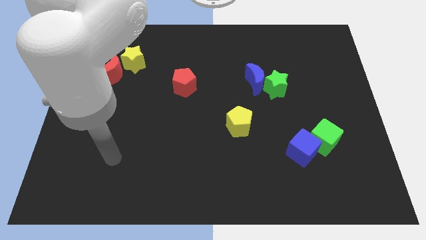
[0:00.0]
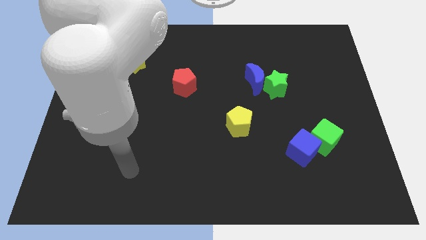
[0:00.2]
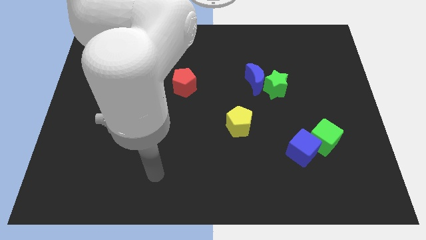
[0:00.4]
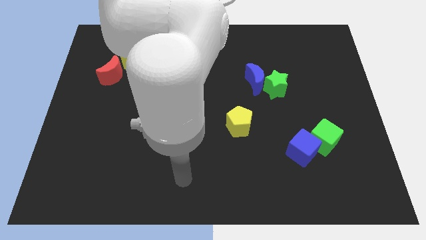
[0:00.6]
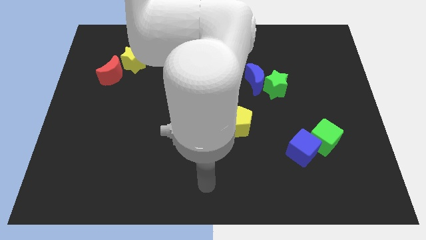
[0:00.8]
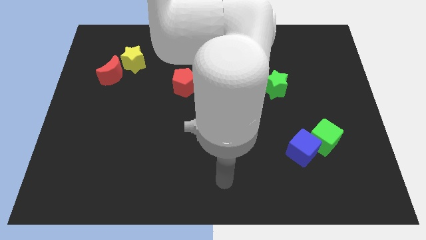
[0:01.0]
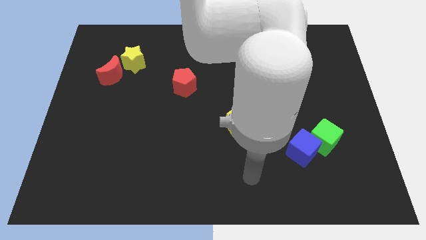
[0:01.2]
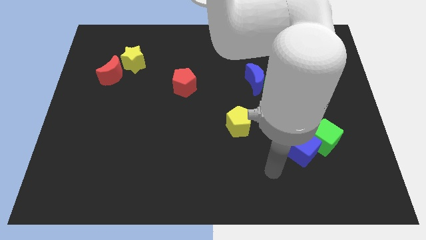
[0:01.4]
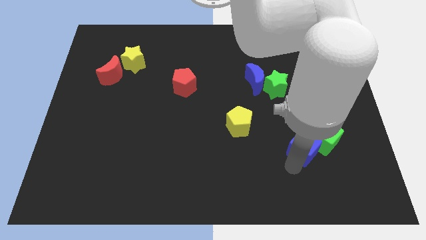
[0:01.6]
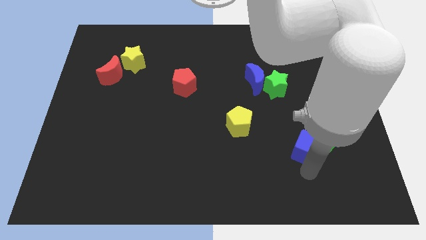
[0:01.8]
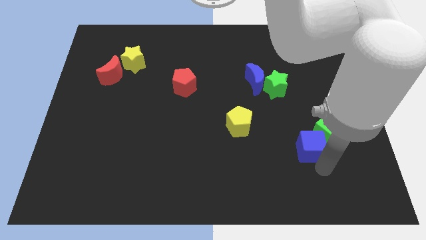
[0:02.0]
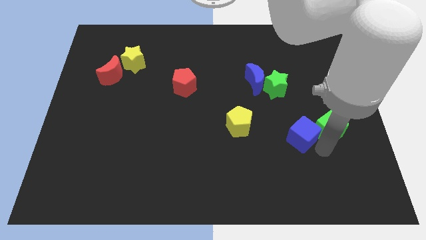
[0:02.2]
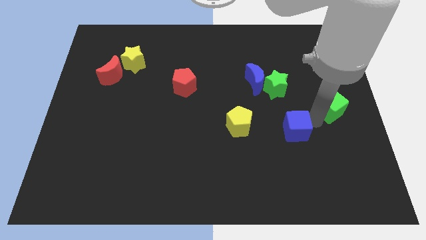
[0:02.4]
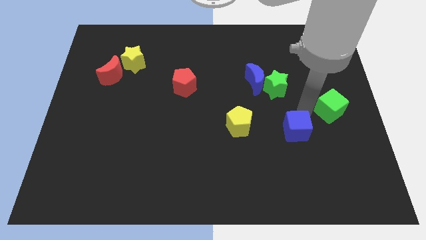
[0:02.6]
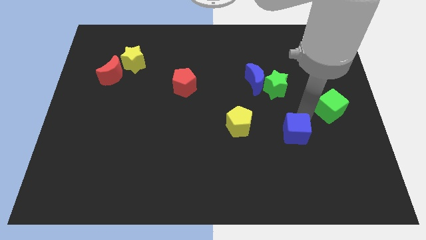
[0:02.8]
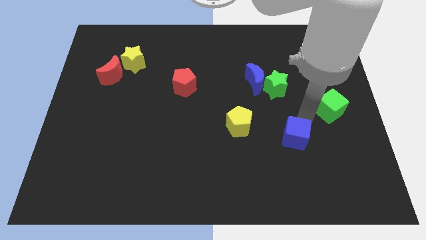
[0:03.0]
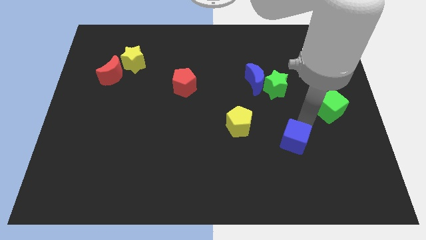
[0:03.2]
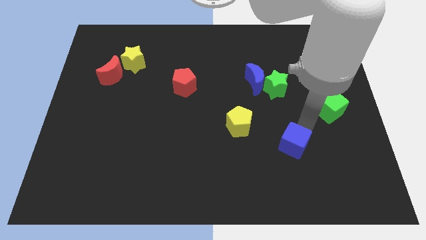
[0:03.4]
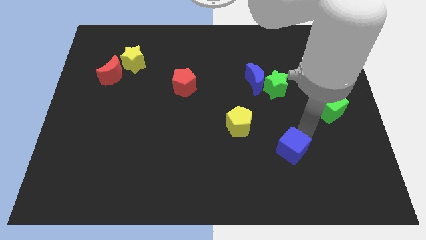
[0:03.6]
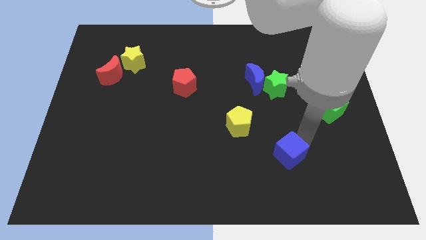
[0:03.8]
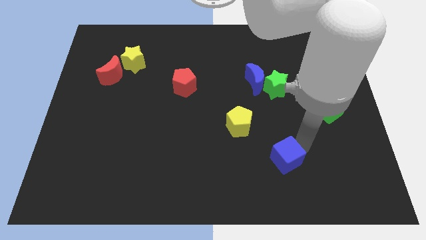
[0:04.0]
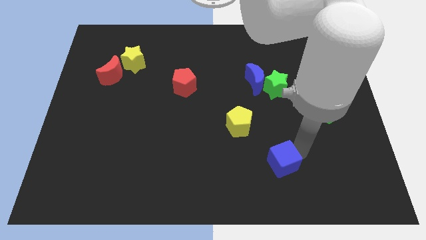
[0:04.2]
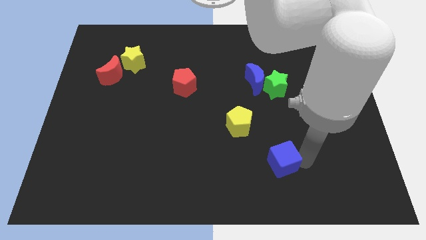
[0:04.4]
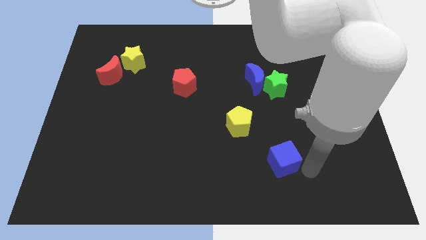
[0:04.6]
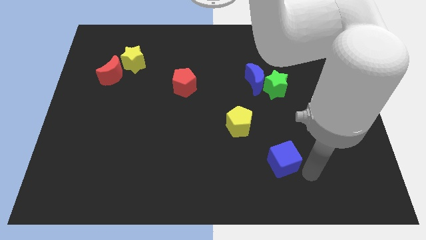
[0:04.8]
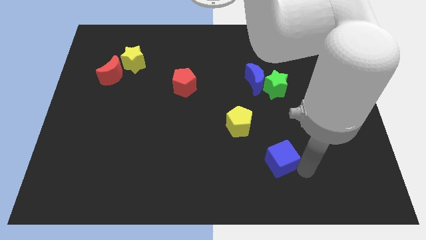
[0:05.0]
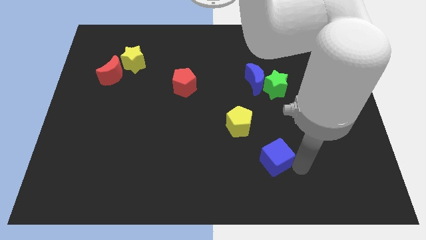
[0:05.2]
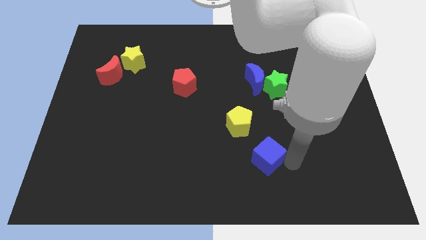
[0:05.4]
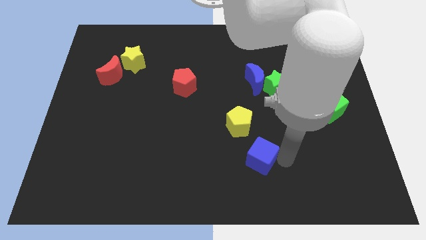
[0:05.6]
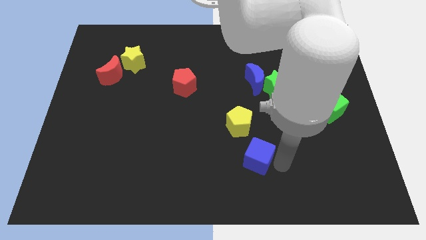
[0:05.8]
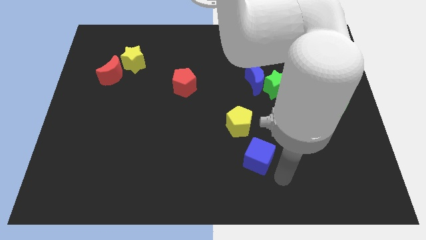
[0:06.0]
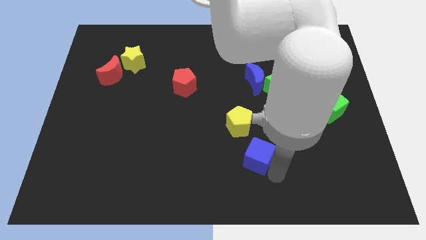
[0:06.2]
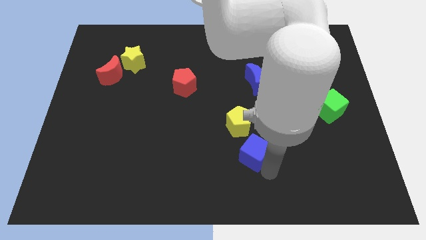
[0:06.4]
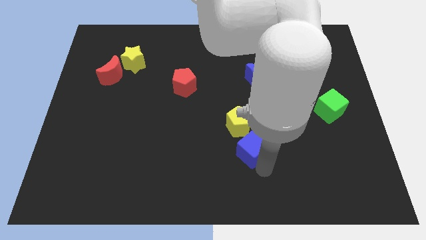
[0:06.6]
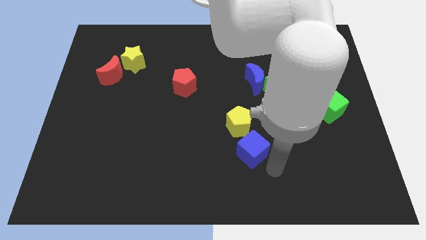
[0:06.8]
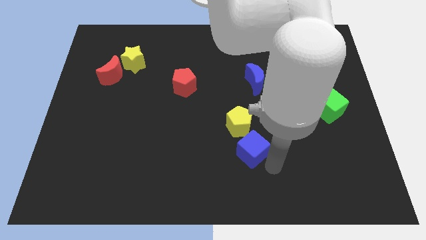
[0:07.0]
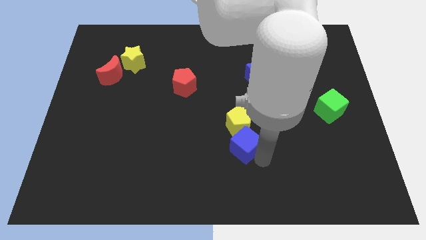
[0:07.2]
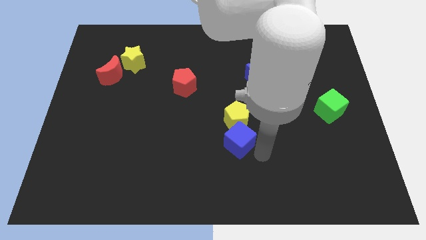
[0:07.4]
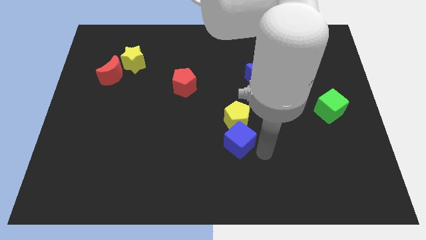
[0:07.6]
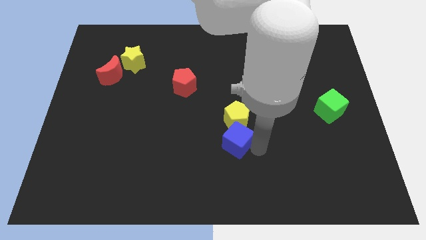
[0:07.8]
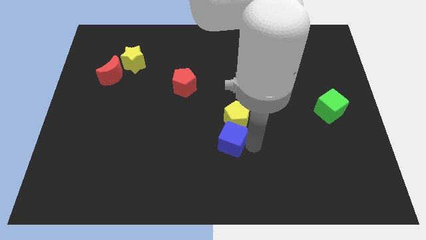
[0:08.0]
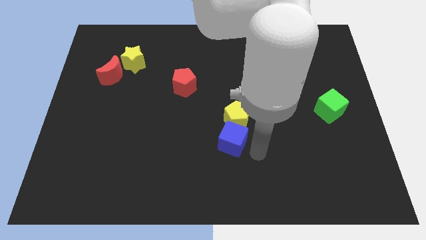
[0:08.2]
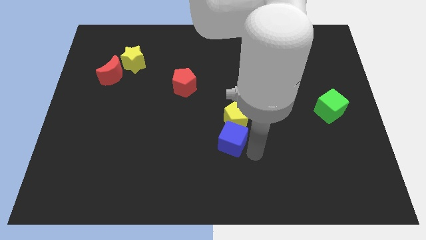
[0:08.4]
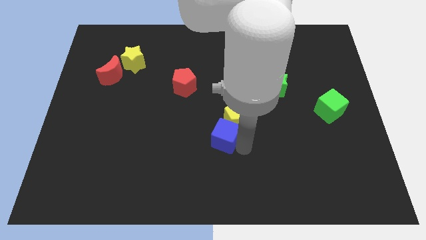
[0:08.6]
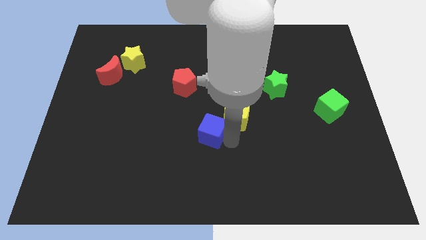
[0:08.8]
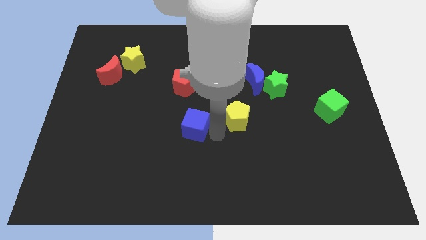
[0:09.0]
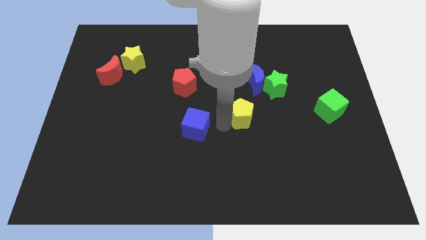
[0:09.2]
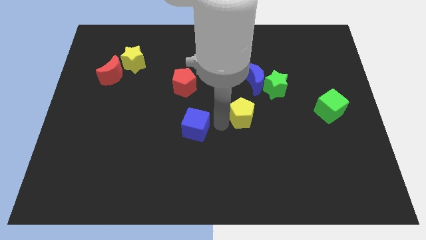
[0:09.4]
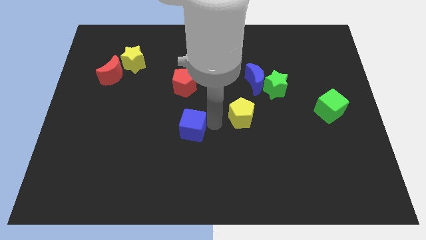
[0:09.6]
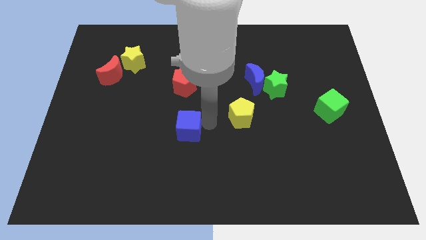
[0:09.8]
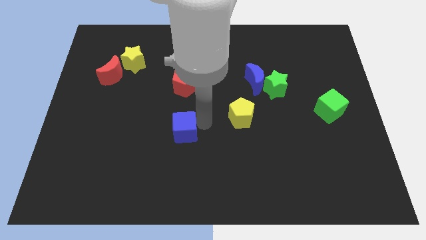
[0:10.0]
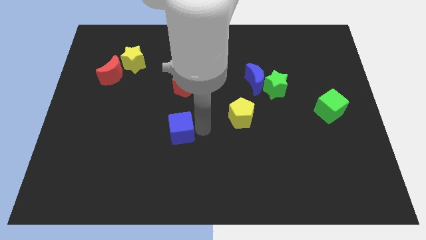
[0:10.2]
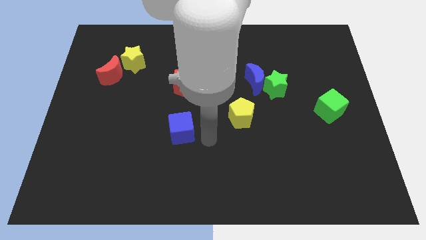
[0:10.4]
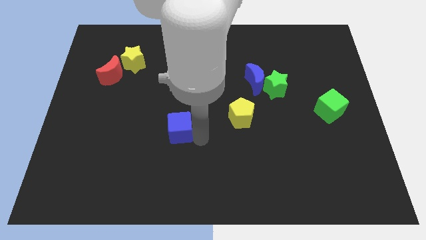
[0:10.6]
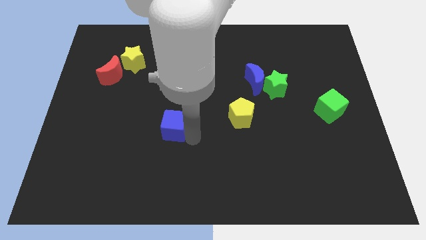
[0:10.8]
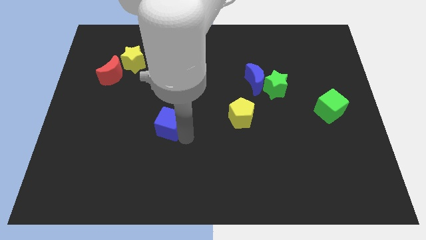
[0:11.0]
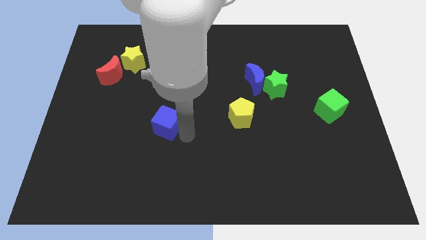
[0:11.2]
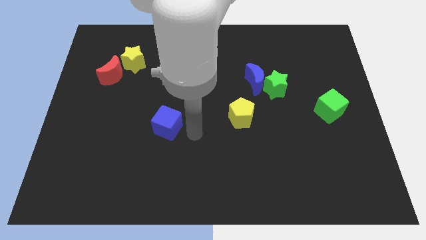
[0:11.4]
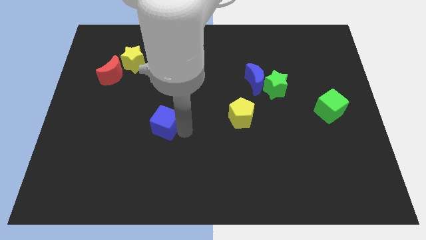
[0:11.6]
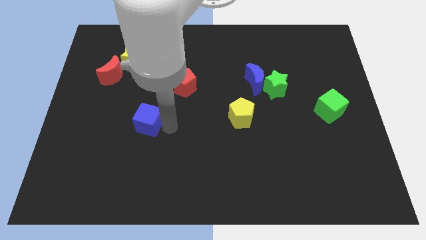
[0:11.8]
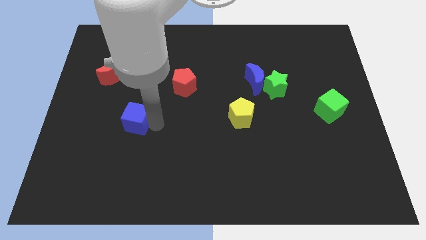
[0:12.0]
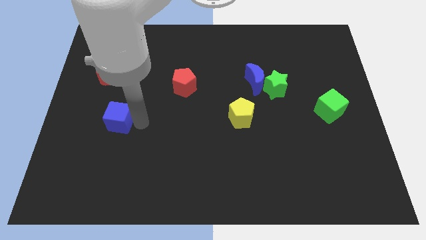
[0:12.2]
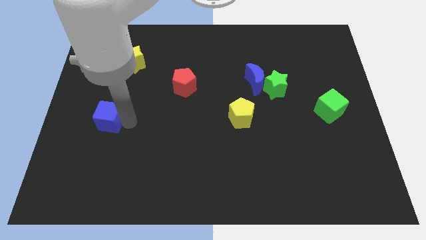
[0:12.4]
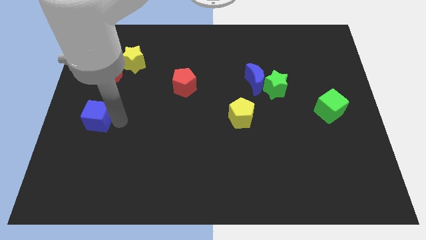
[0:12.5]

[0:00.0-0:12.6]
put the blue cube to the left side of the board
